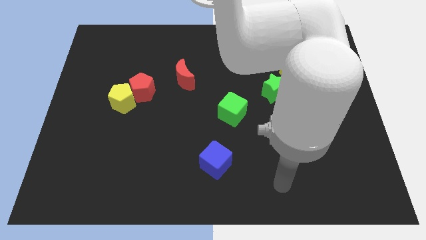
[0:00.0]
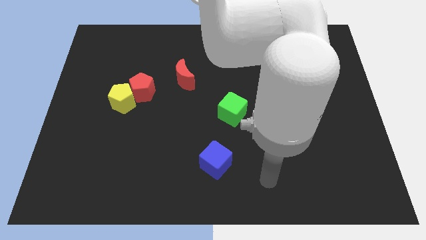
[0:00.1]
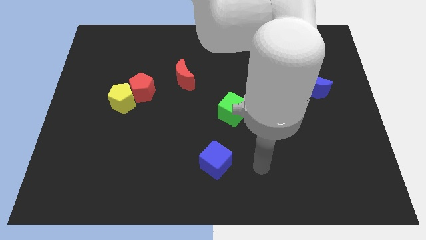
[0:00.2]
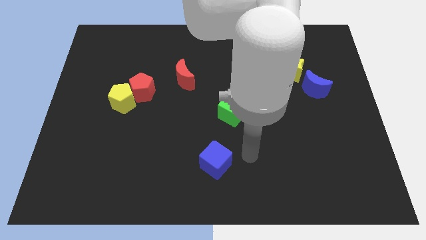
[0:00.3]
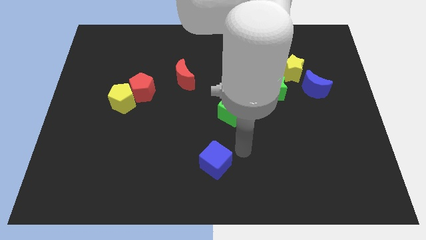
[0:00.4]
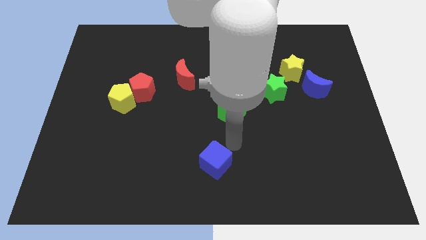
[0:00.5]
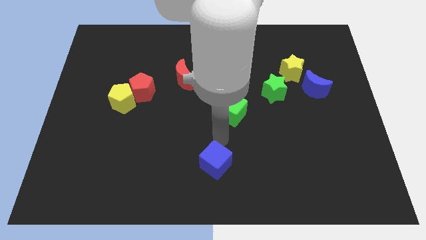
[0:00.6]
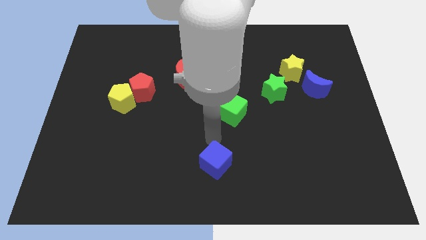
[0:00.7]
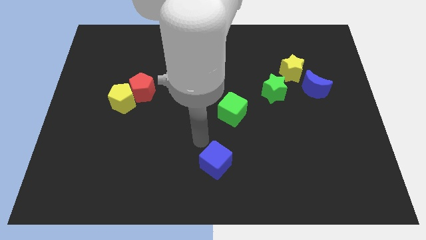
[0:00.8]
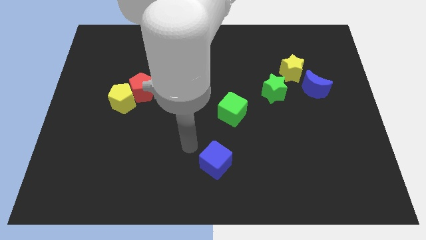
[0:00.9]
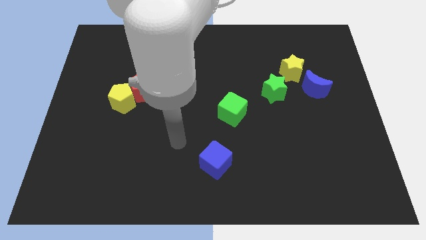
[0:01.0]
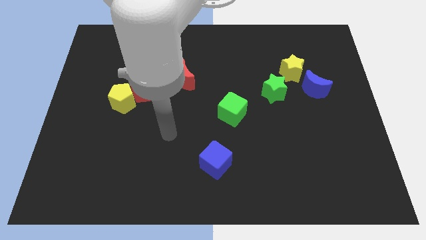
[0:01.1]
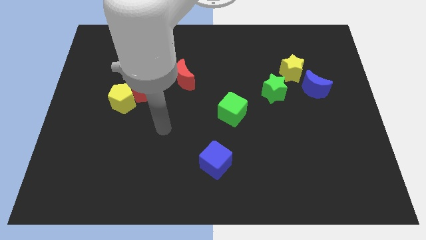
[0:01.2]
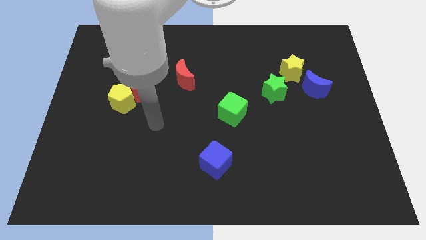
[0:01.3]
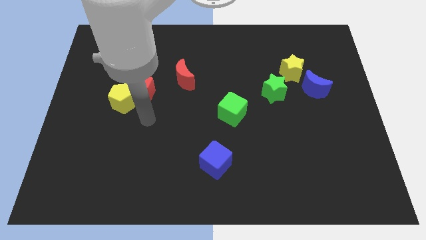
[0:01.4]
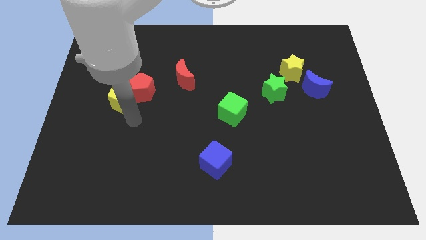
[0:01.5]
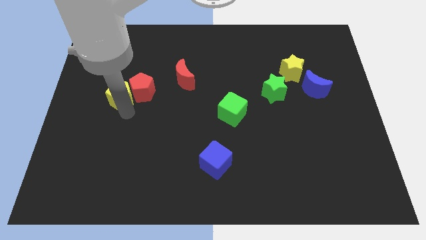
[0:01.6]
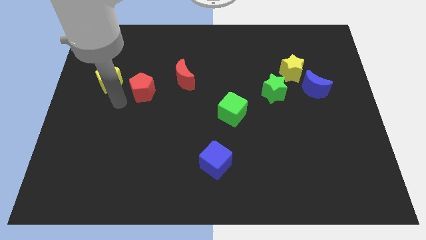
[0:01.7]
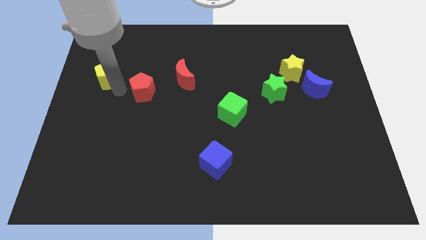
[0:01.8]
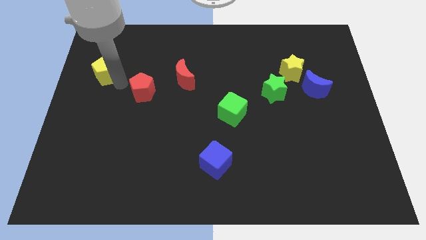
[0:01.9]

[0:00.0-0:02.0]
separate the red pentagon from the yellow pentagon

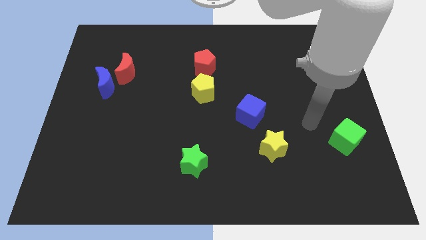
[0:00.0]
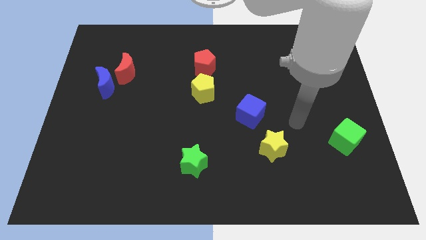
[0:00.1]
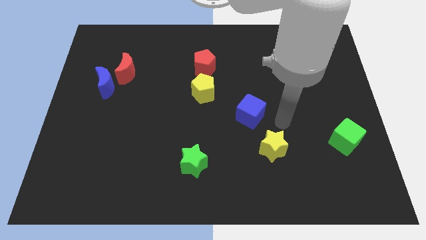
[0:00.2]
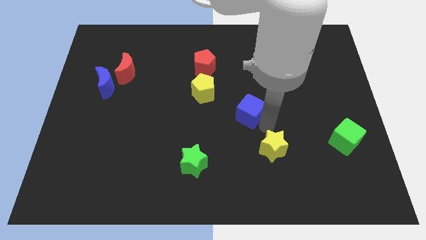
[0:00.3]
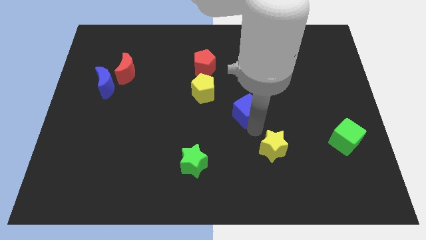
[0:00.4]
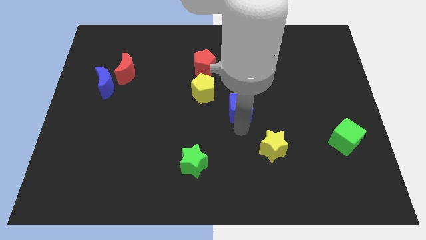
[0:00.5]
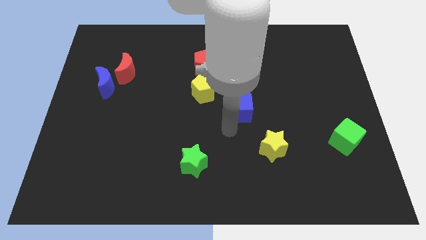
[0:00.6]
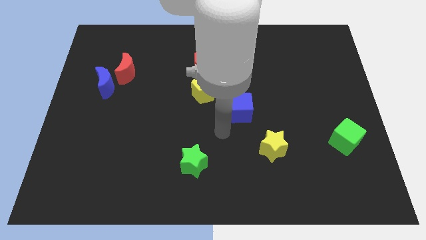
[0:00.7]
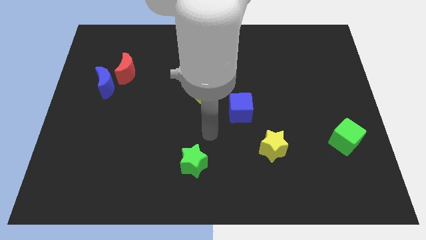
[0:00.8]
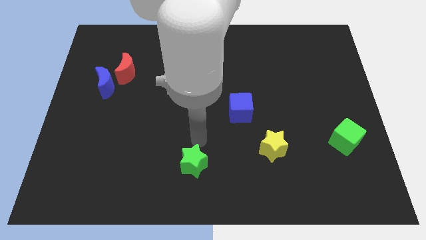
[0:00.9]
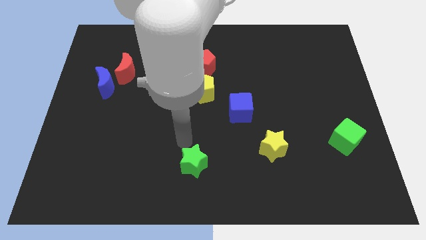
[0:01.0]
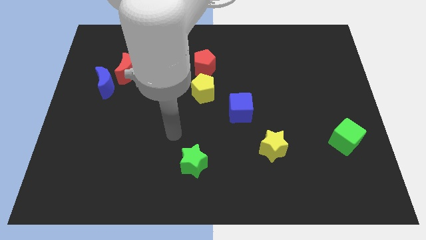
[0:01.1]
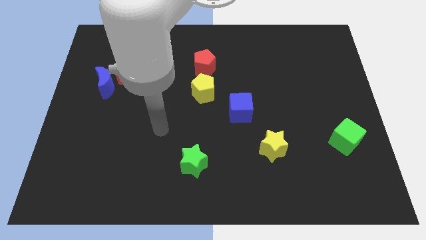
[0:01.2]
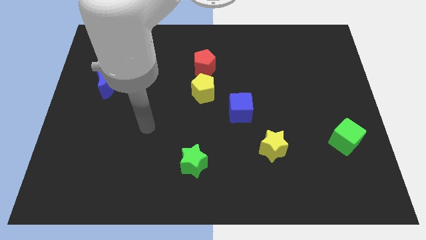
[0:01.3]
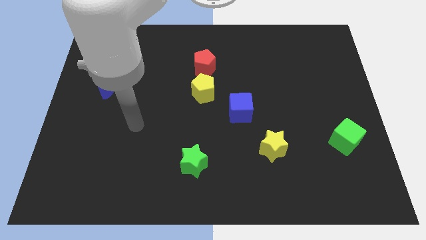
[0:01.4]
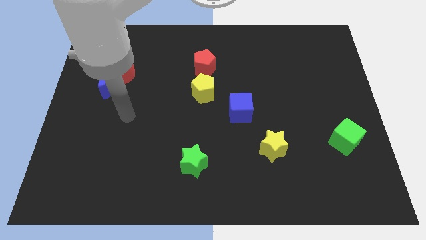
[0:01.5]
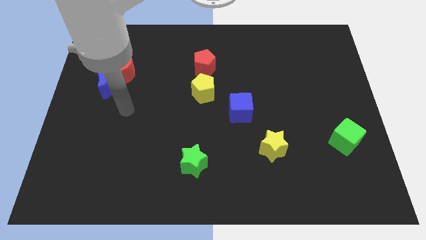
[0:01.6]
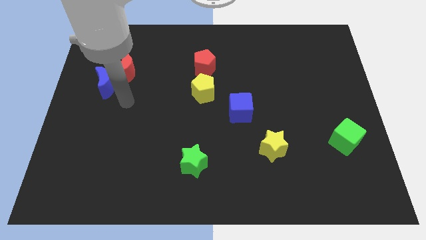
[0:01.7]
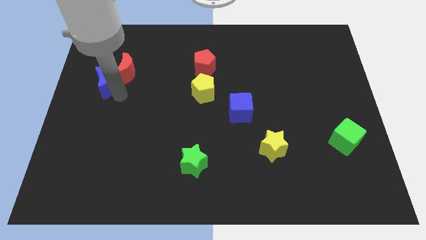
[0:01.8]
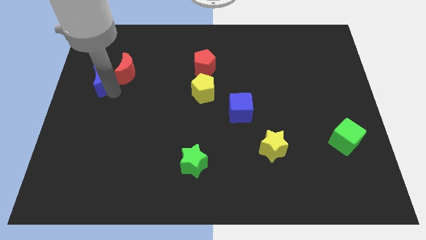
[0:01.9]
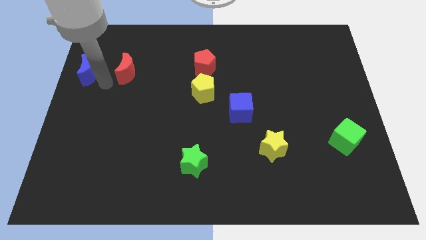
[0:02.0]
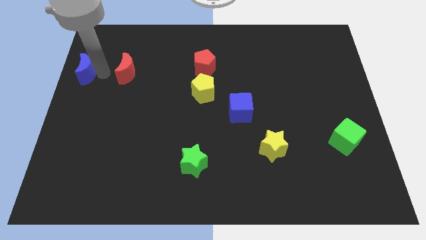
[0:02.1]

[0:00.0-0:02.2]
pull the red moon apart from the blue moon

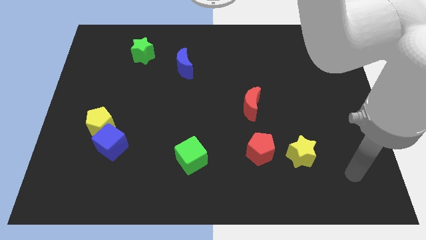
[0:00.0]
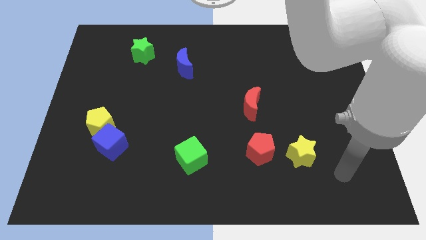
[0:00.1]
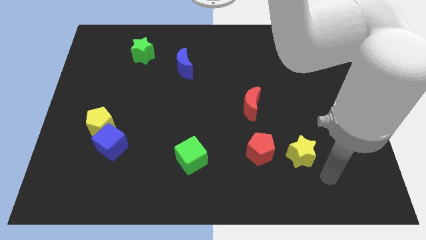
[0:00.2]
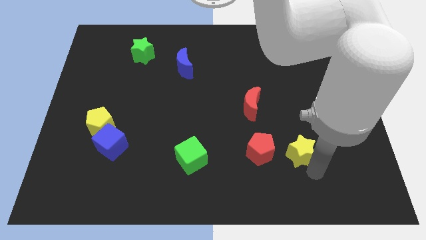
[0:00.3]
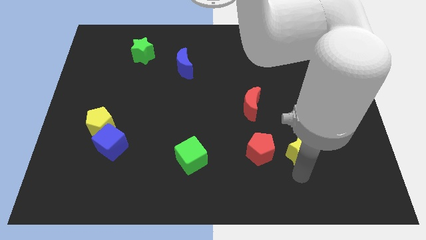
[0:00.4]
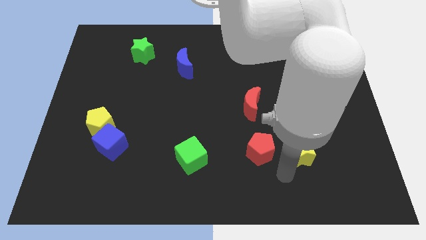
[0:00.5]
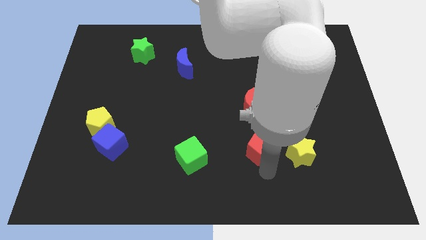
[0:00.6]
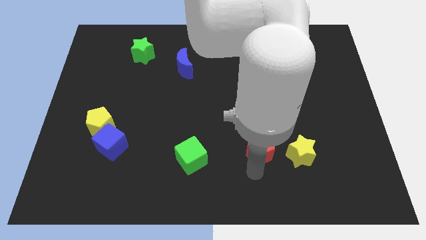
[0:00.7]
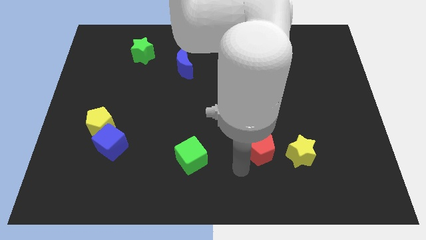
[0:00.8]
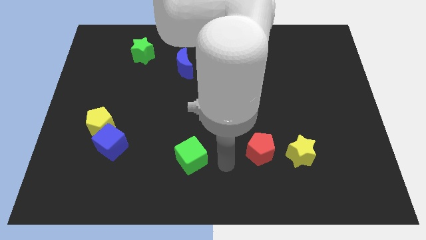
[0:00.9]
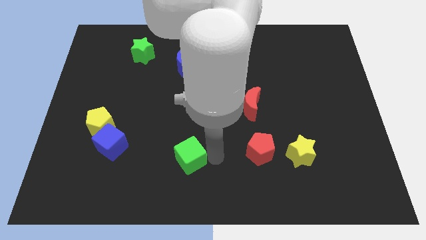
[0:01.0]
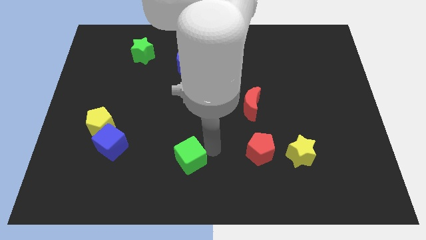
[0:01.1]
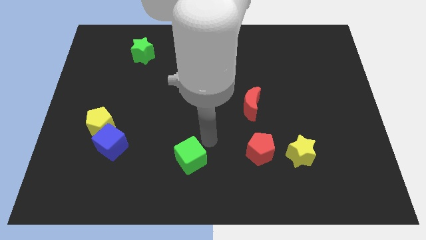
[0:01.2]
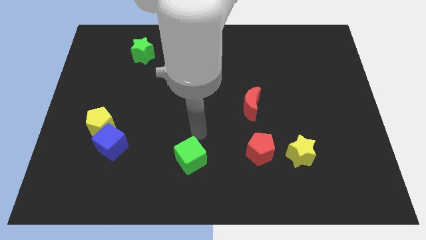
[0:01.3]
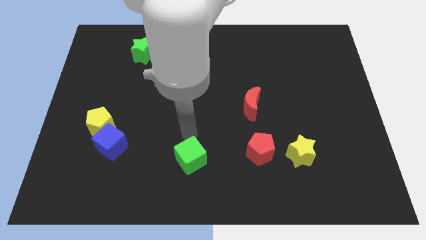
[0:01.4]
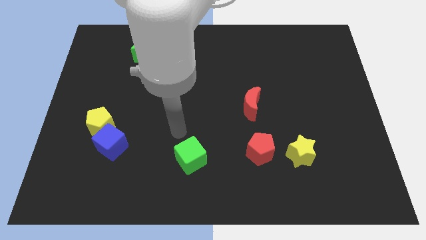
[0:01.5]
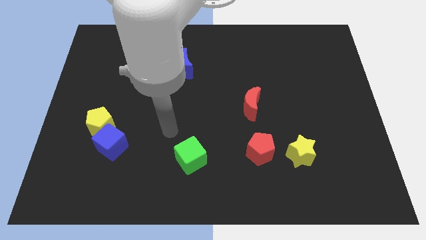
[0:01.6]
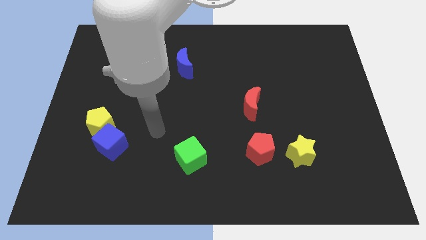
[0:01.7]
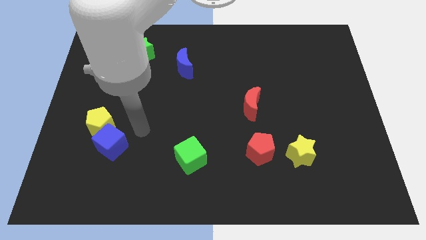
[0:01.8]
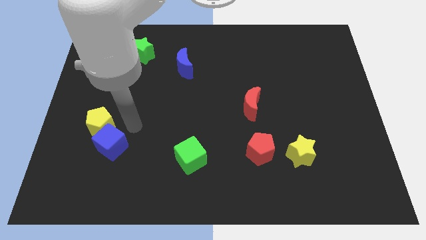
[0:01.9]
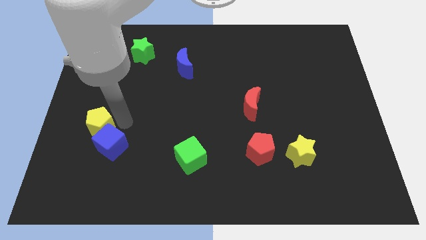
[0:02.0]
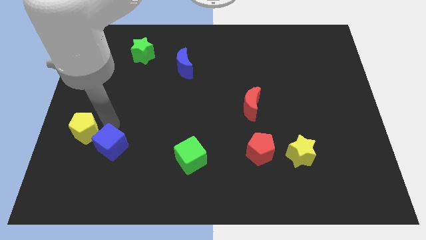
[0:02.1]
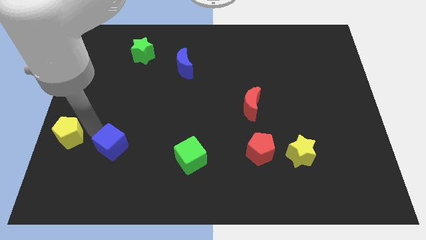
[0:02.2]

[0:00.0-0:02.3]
separate the blue cube from the yellow pentagon

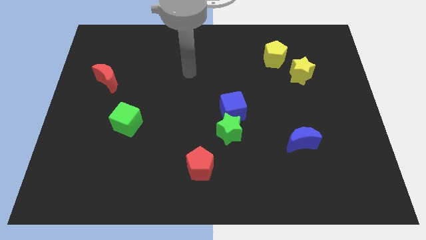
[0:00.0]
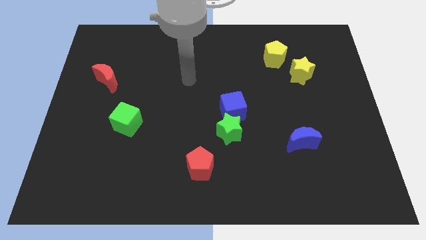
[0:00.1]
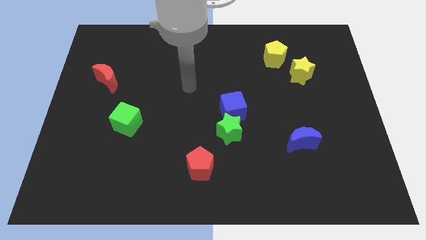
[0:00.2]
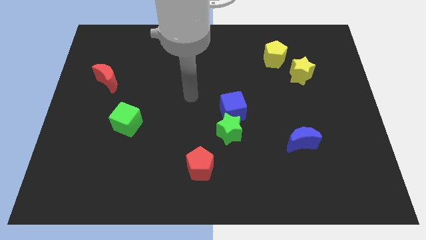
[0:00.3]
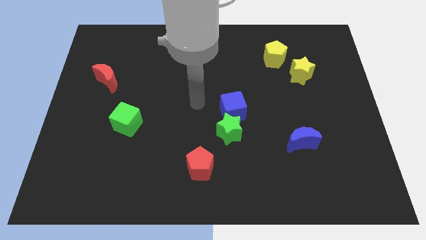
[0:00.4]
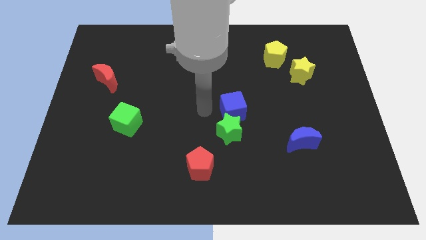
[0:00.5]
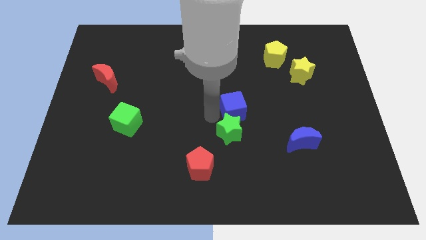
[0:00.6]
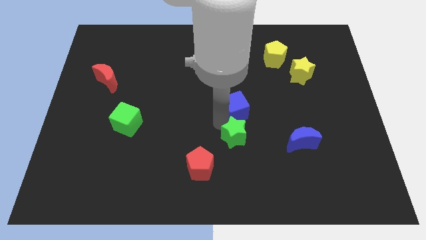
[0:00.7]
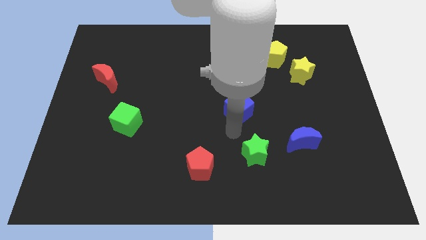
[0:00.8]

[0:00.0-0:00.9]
separate the blue cube from the green star

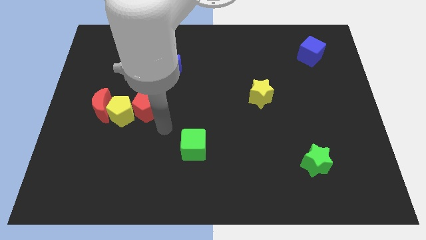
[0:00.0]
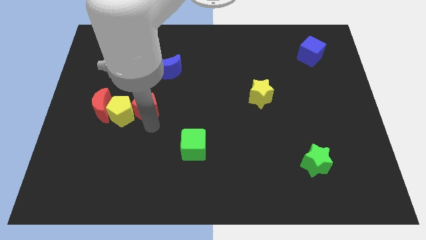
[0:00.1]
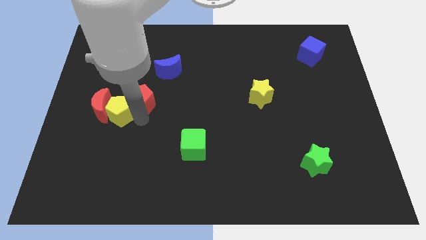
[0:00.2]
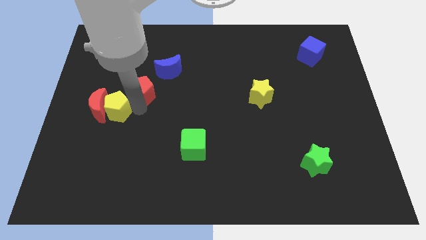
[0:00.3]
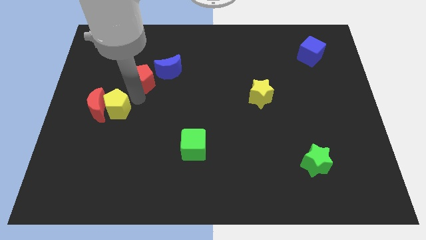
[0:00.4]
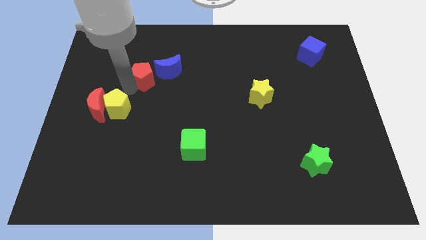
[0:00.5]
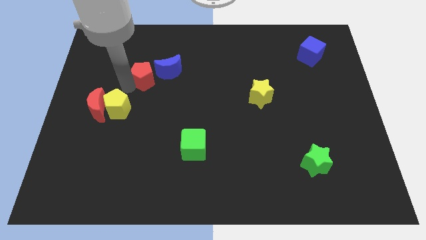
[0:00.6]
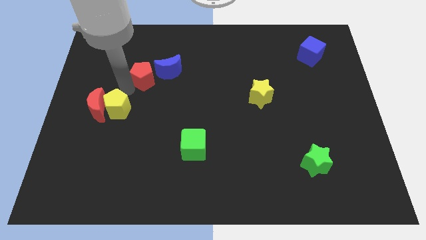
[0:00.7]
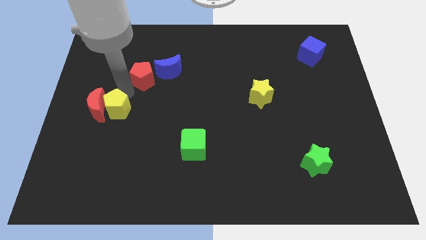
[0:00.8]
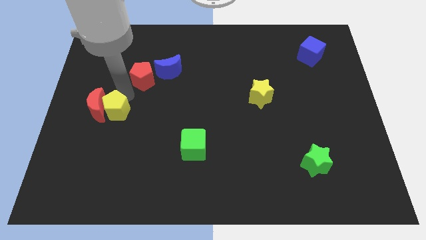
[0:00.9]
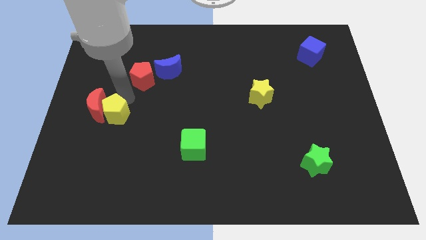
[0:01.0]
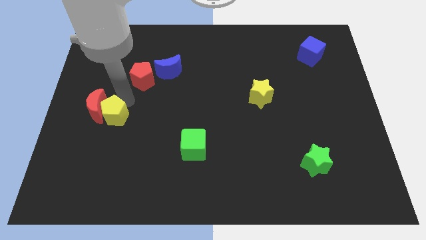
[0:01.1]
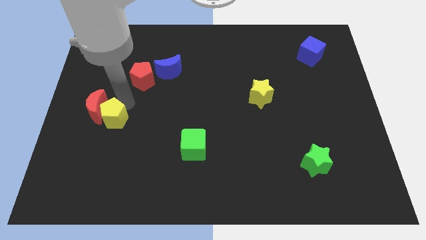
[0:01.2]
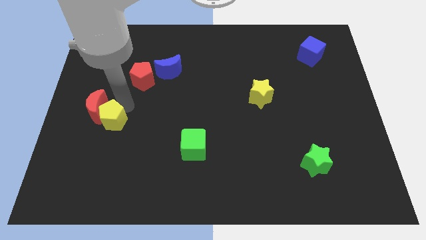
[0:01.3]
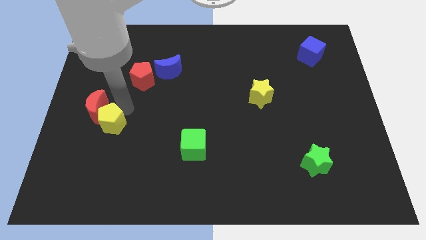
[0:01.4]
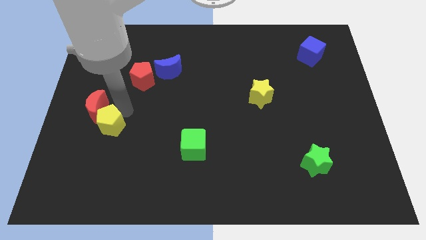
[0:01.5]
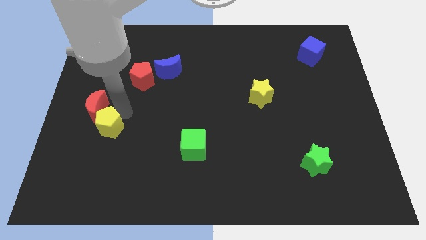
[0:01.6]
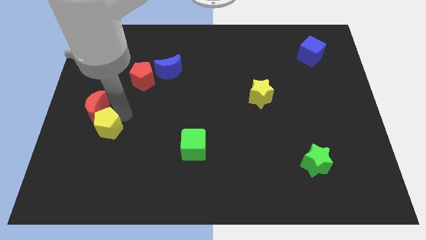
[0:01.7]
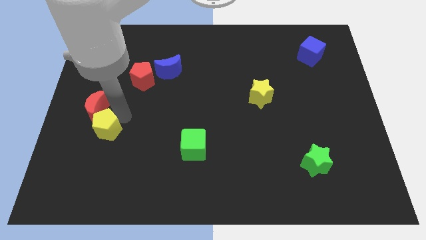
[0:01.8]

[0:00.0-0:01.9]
move the yellow pentagon away from the red moon and red pentagon
